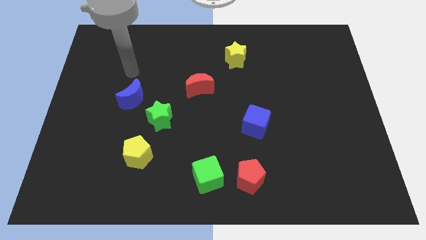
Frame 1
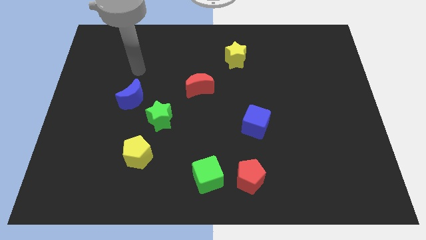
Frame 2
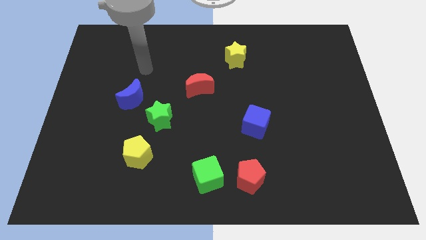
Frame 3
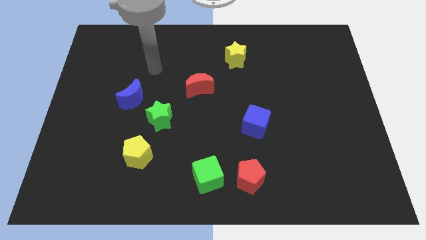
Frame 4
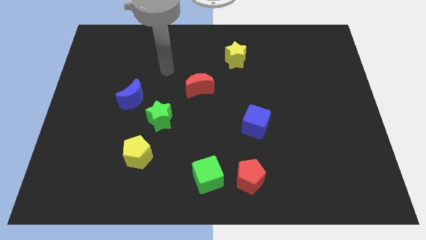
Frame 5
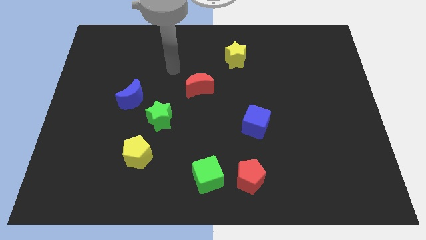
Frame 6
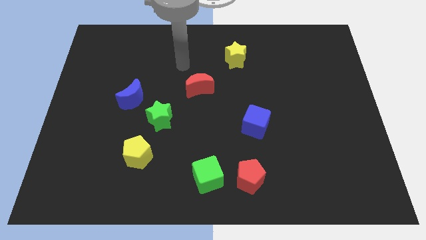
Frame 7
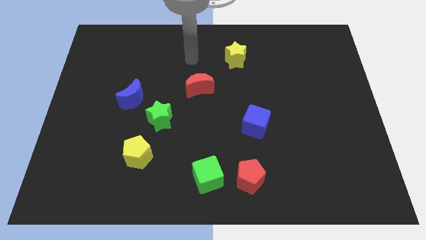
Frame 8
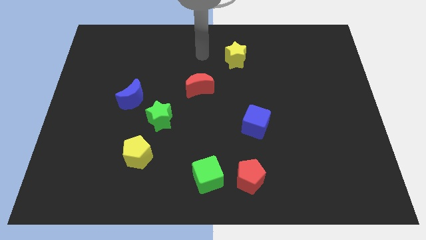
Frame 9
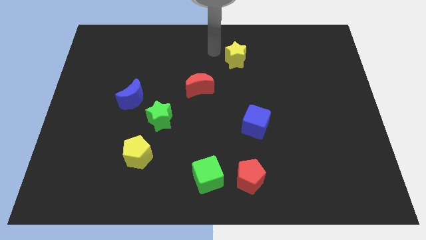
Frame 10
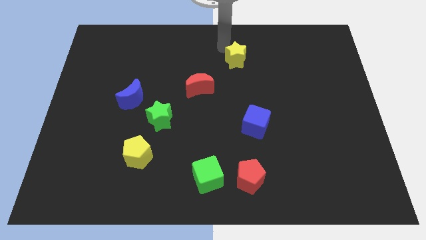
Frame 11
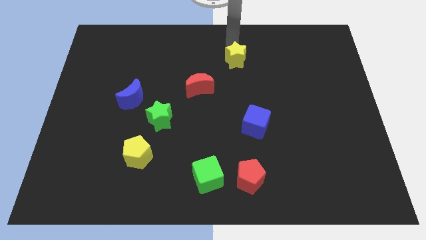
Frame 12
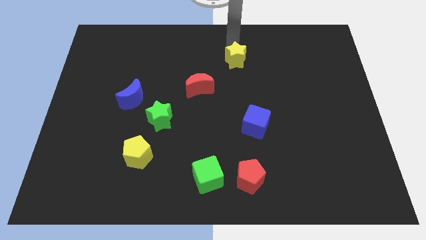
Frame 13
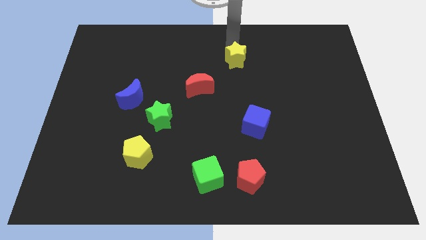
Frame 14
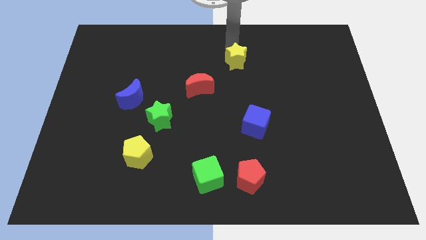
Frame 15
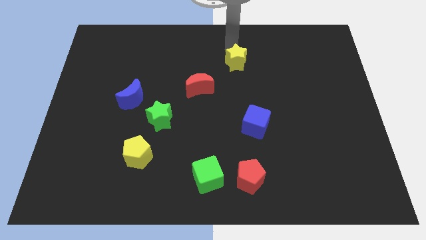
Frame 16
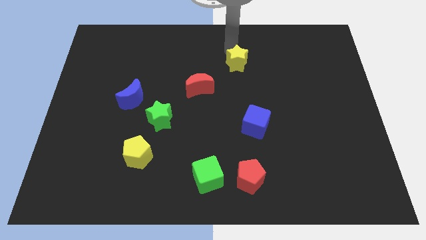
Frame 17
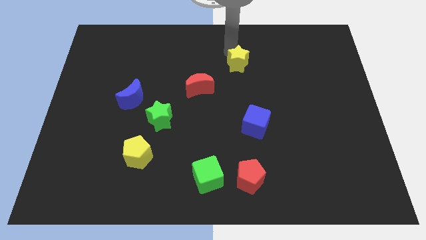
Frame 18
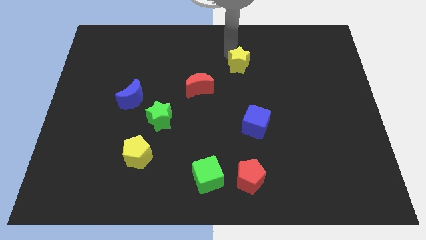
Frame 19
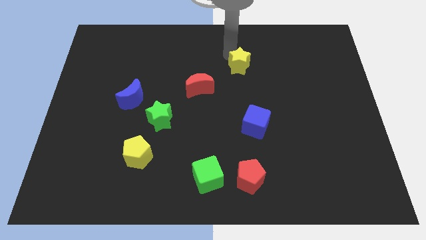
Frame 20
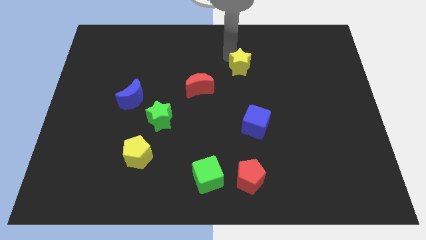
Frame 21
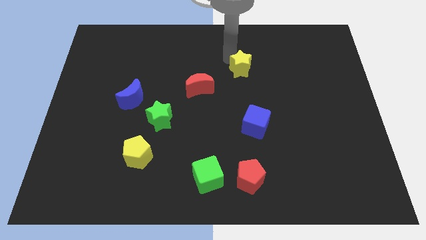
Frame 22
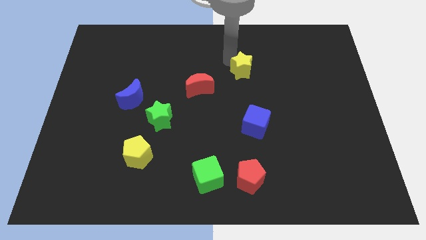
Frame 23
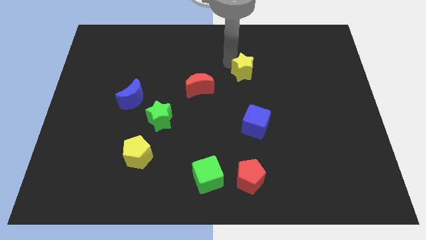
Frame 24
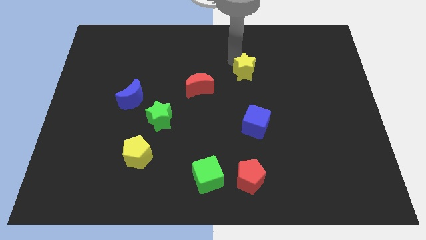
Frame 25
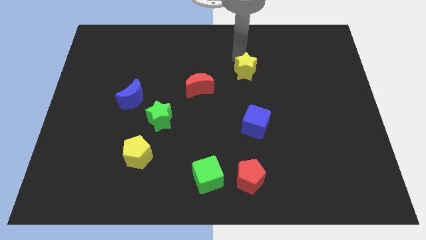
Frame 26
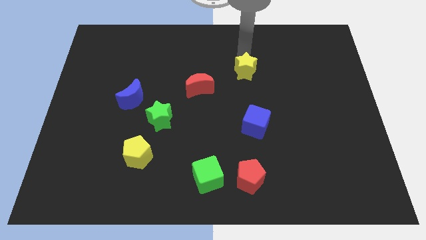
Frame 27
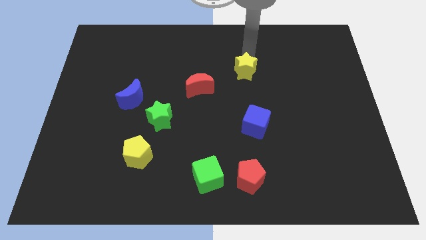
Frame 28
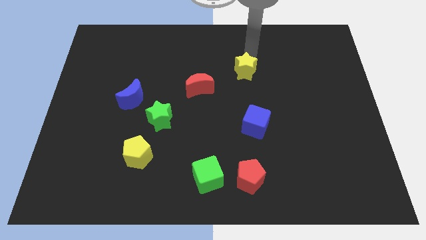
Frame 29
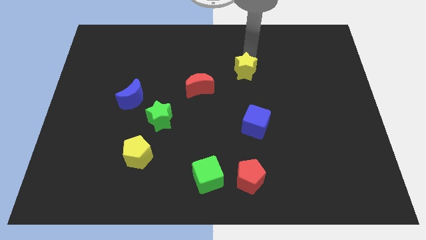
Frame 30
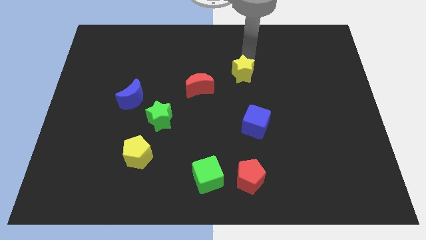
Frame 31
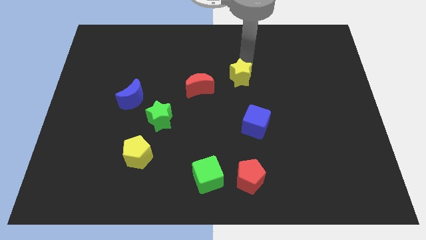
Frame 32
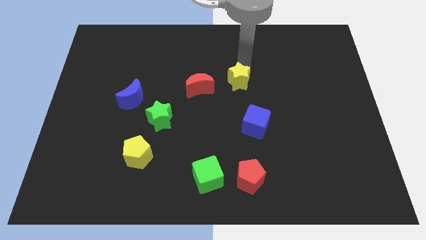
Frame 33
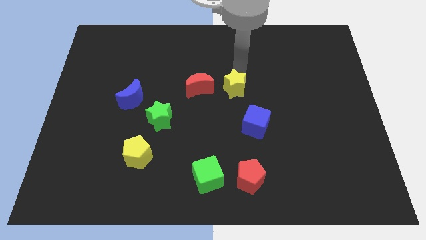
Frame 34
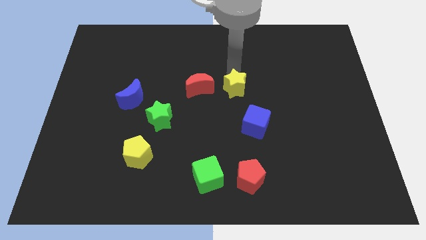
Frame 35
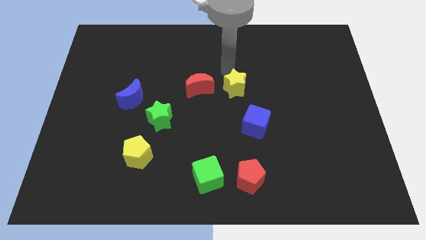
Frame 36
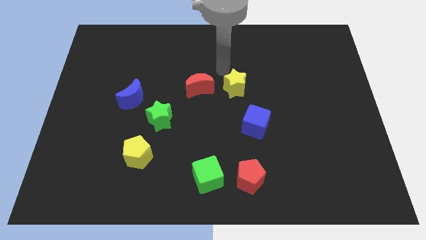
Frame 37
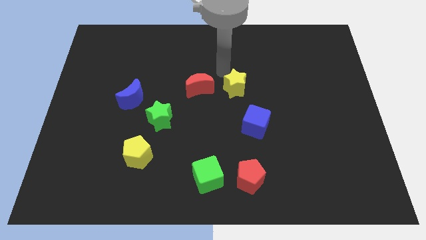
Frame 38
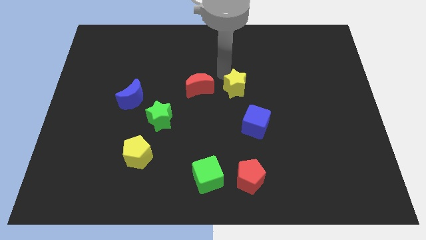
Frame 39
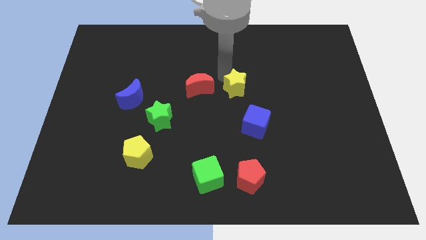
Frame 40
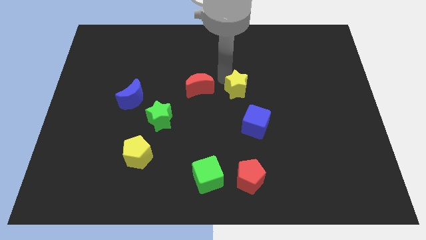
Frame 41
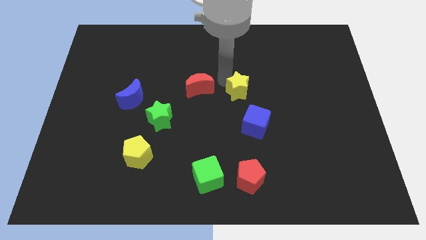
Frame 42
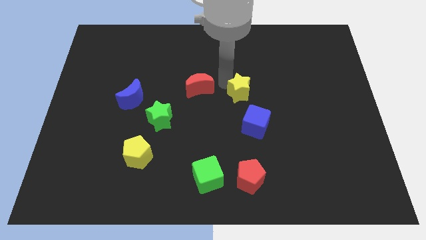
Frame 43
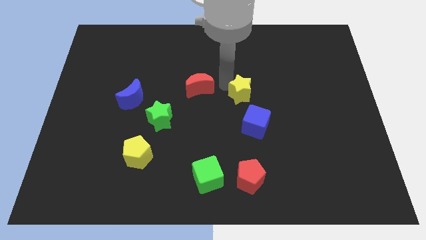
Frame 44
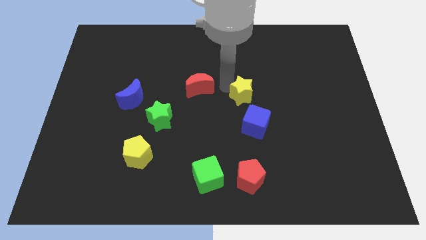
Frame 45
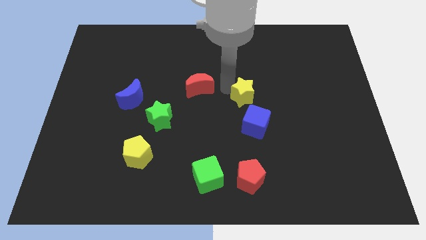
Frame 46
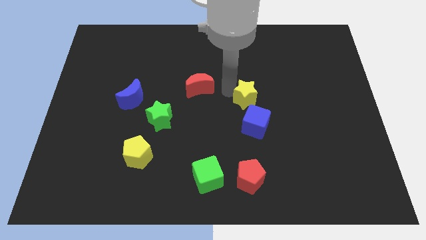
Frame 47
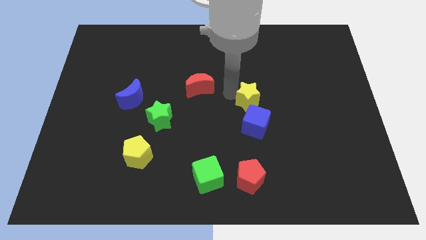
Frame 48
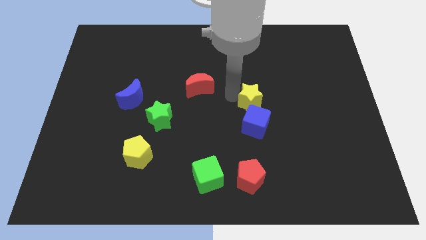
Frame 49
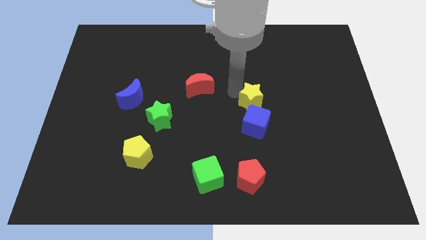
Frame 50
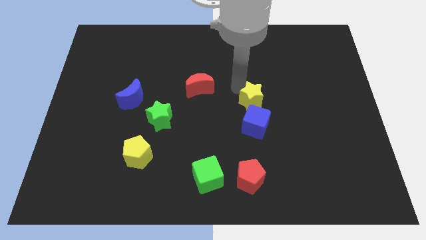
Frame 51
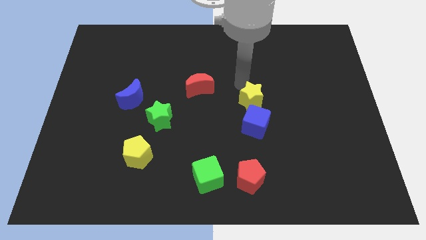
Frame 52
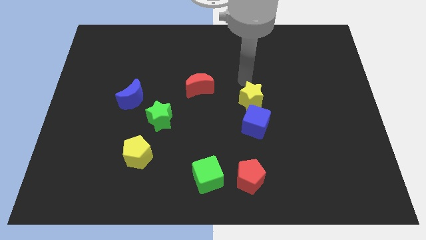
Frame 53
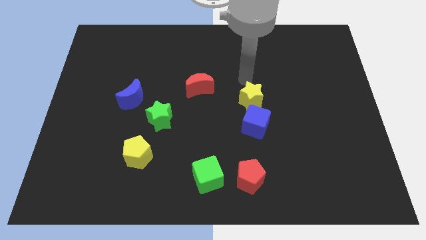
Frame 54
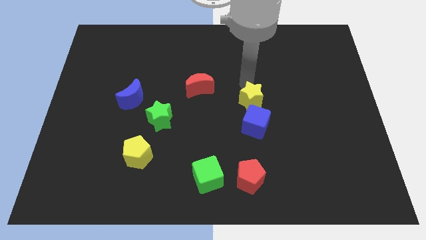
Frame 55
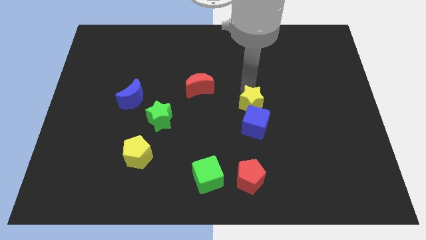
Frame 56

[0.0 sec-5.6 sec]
move the yellow star towards the blue cube

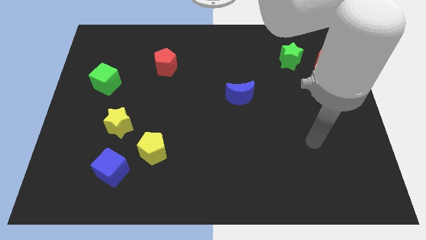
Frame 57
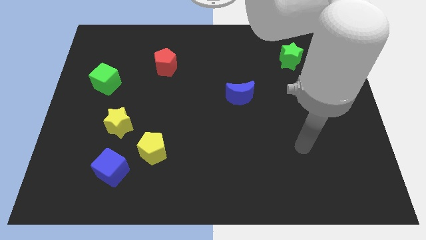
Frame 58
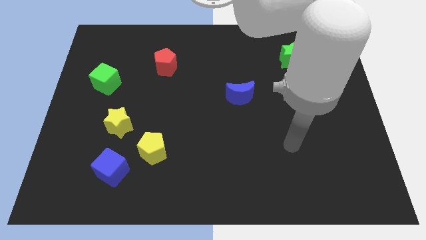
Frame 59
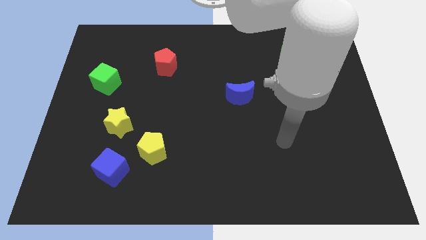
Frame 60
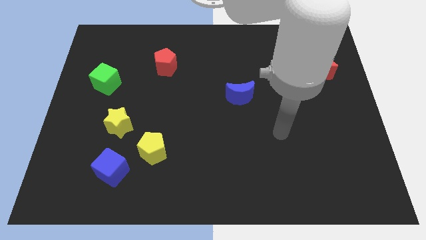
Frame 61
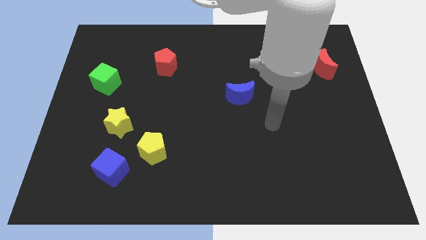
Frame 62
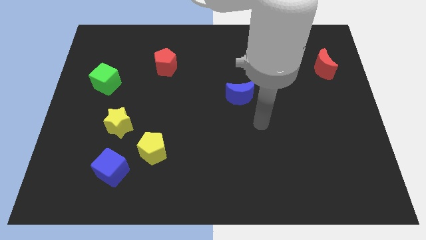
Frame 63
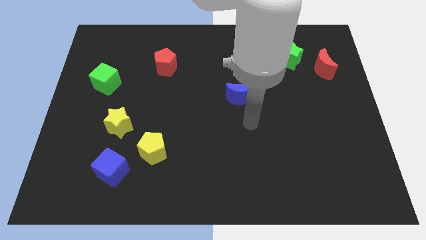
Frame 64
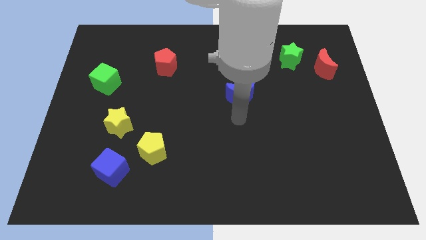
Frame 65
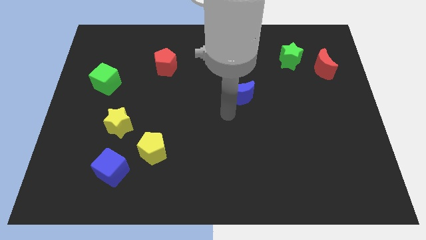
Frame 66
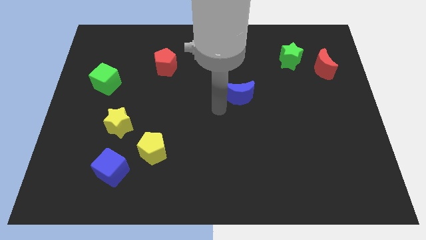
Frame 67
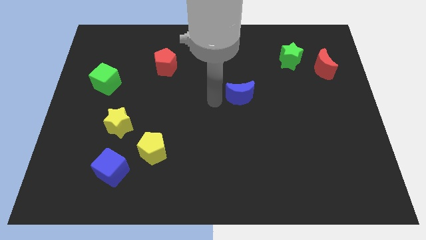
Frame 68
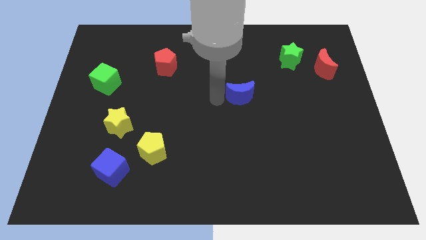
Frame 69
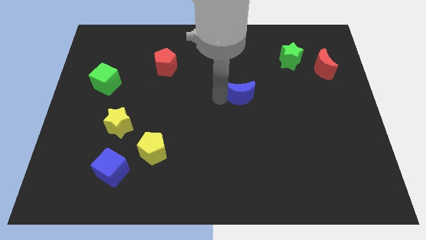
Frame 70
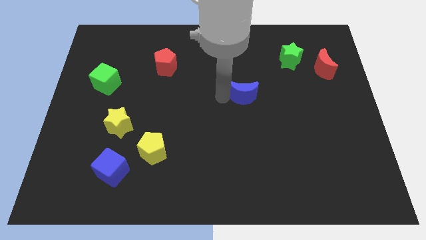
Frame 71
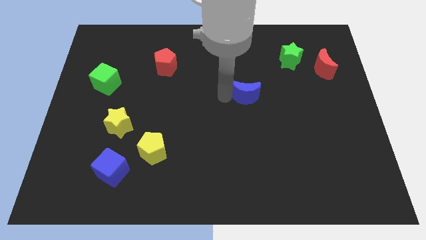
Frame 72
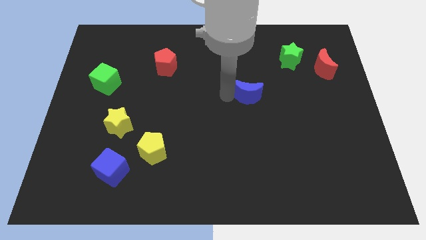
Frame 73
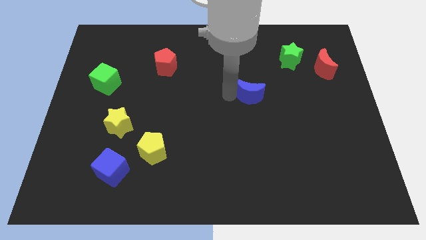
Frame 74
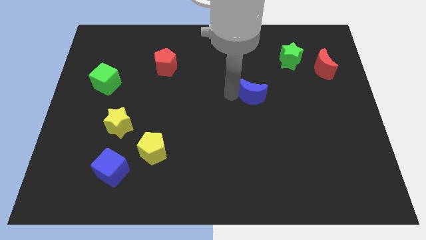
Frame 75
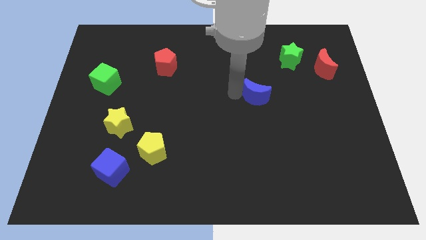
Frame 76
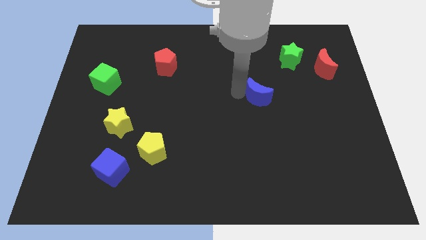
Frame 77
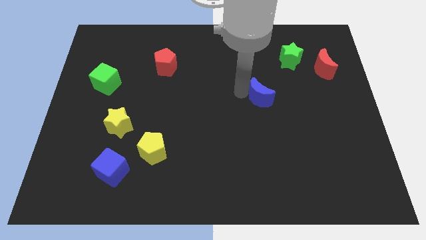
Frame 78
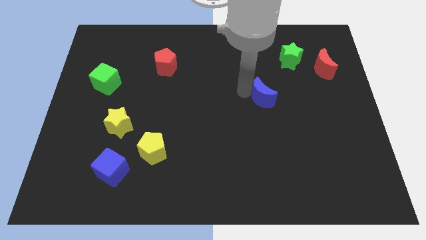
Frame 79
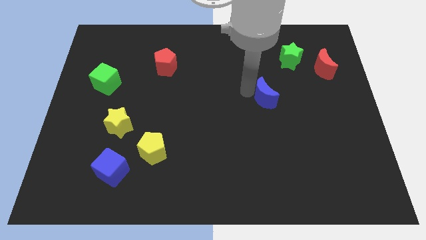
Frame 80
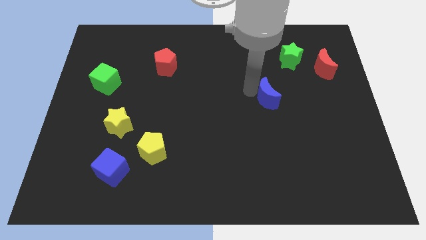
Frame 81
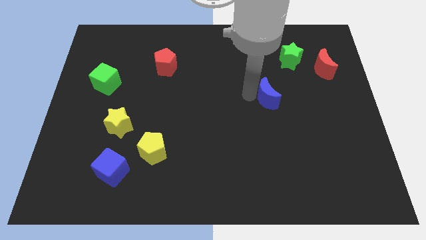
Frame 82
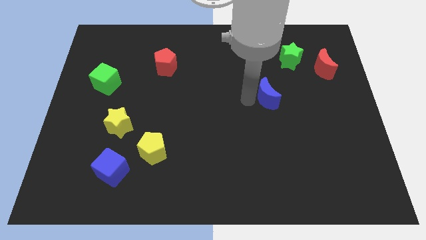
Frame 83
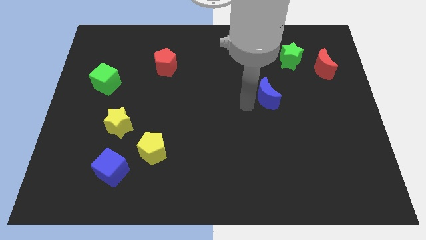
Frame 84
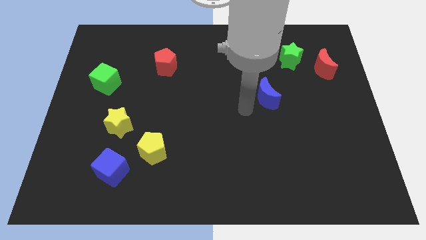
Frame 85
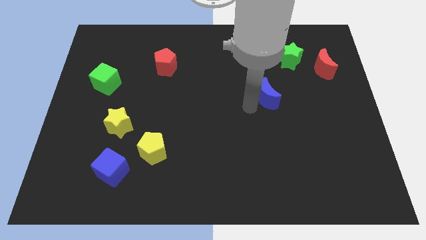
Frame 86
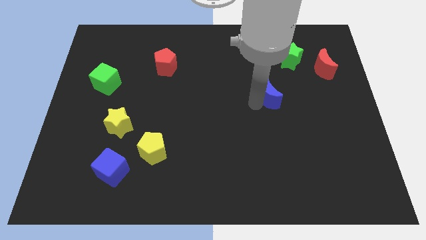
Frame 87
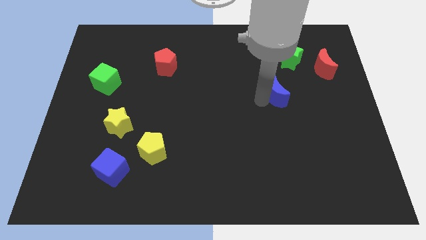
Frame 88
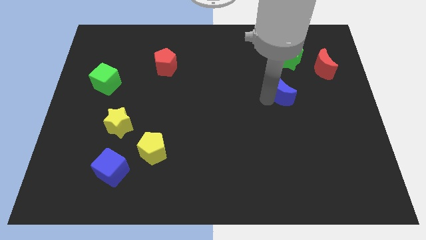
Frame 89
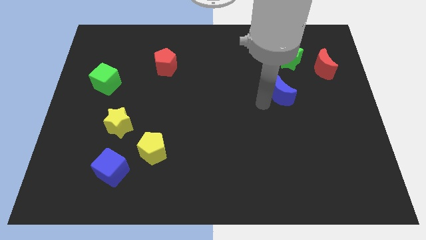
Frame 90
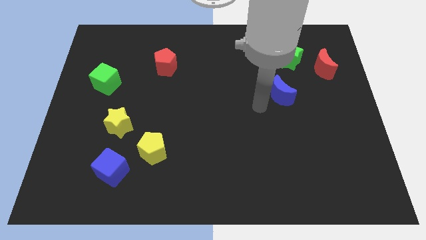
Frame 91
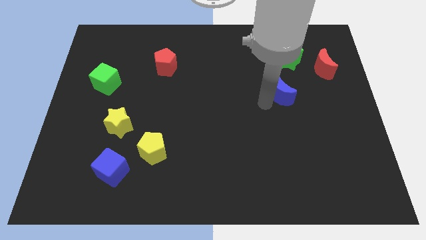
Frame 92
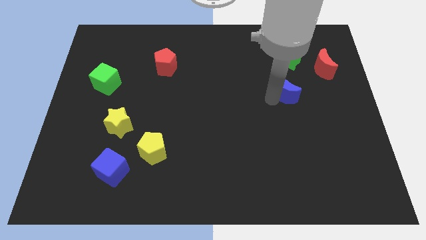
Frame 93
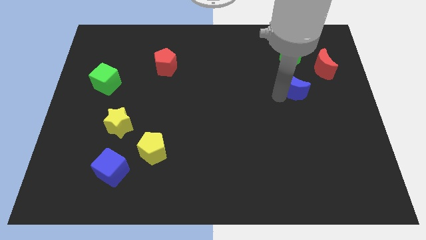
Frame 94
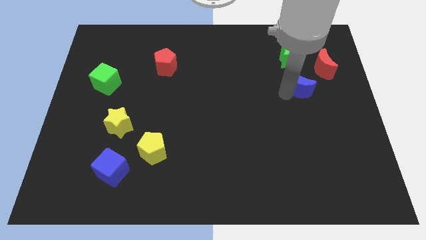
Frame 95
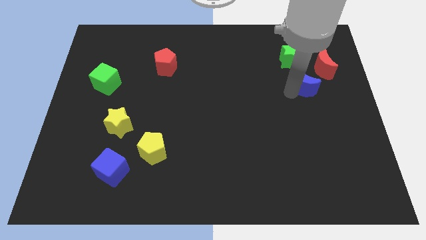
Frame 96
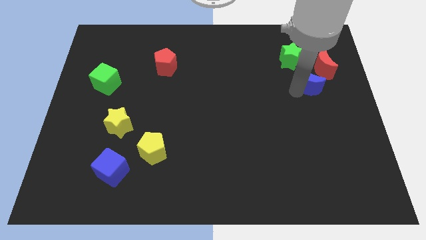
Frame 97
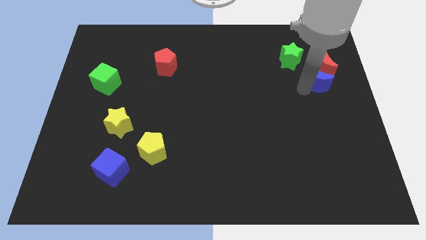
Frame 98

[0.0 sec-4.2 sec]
push the blue moon towards the red moon
